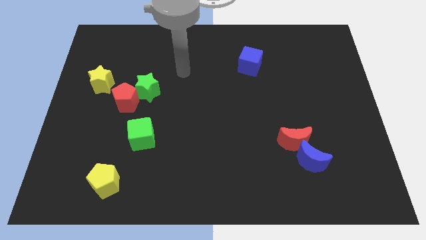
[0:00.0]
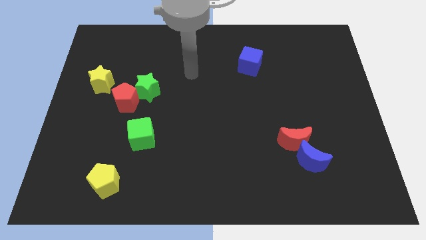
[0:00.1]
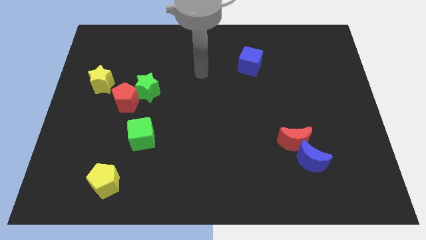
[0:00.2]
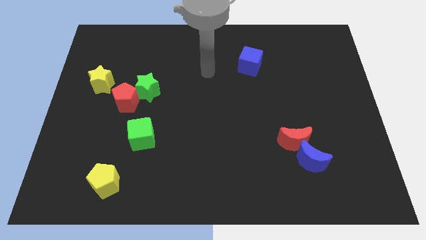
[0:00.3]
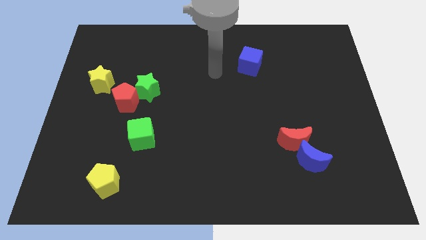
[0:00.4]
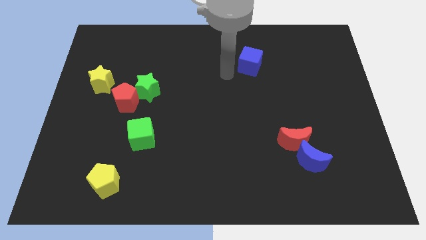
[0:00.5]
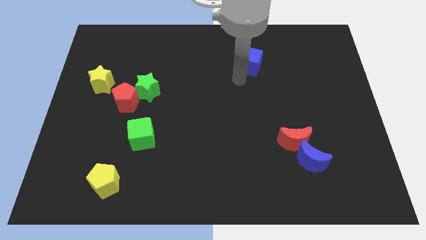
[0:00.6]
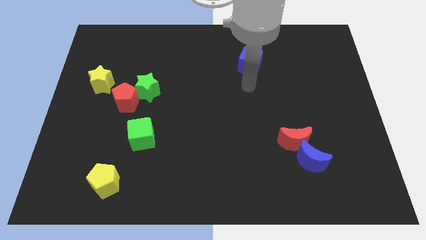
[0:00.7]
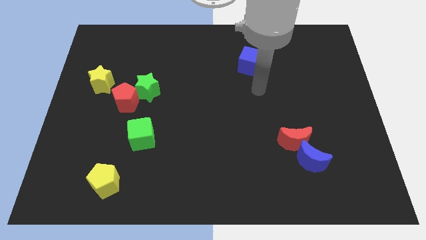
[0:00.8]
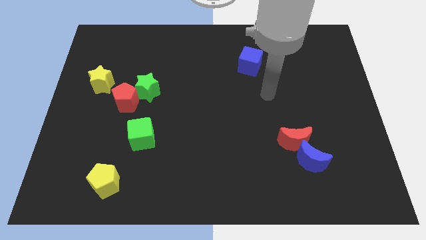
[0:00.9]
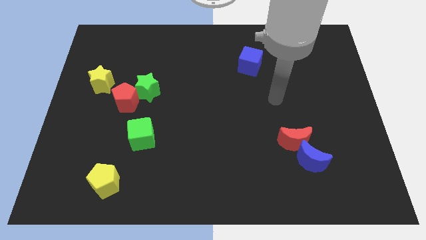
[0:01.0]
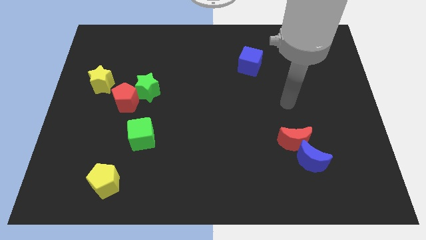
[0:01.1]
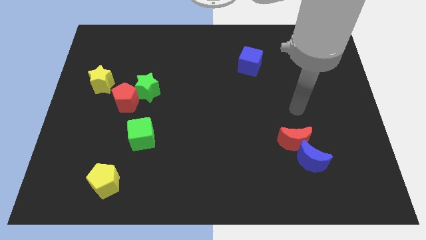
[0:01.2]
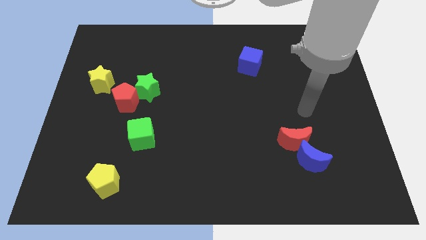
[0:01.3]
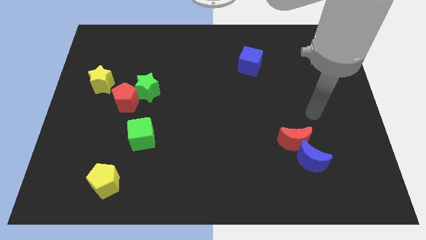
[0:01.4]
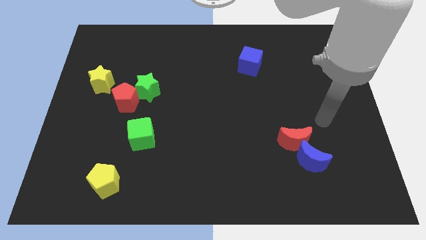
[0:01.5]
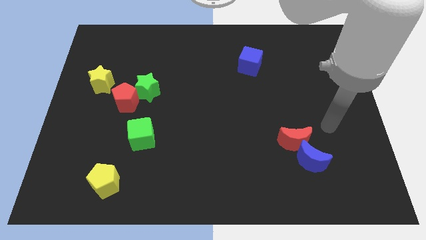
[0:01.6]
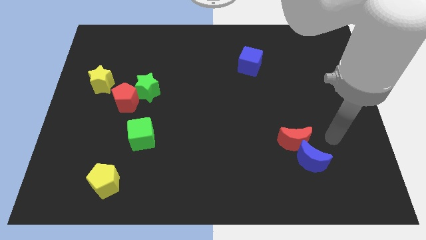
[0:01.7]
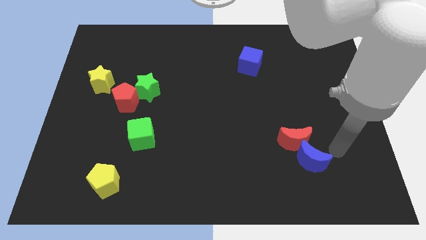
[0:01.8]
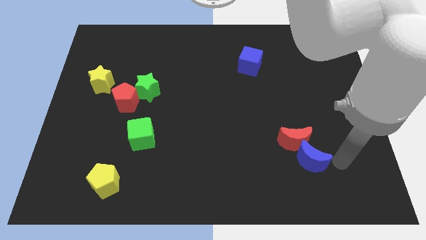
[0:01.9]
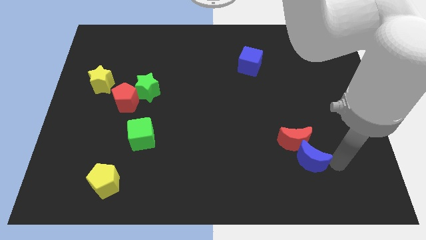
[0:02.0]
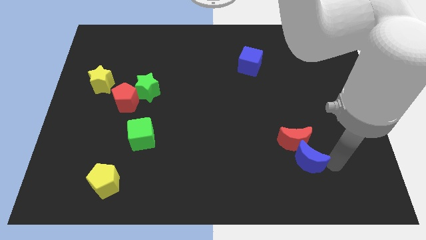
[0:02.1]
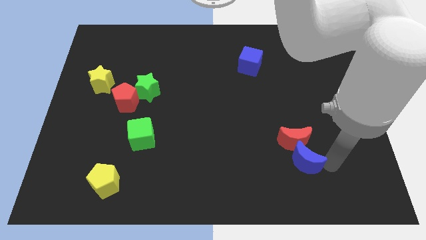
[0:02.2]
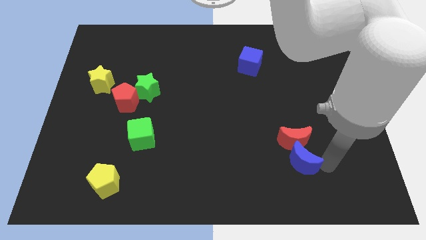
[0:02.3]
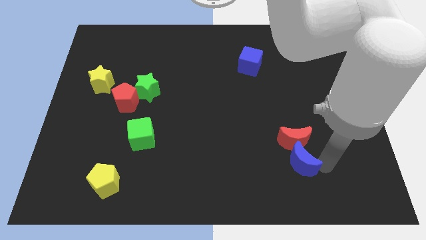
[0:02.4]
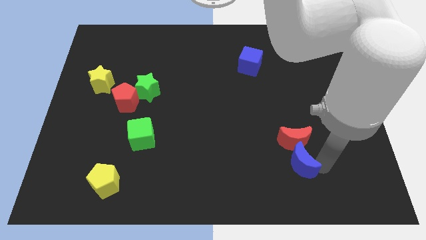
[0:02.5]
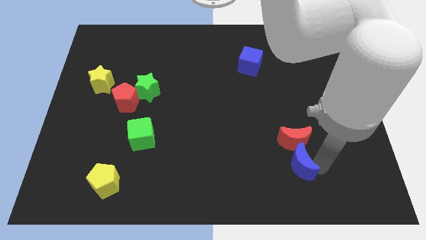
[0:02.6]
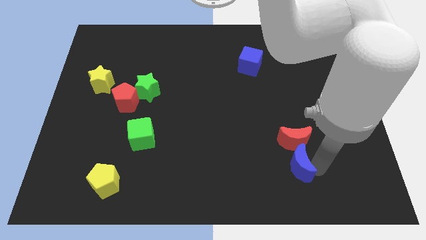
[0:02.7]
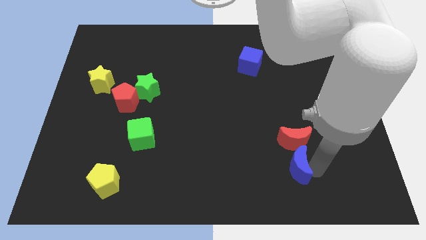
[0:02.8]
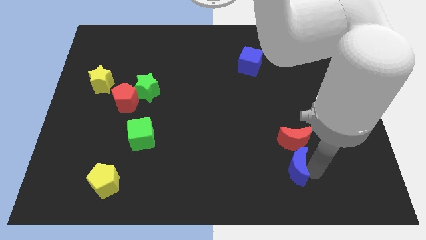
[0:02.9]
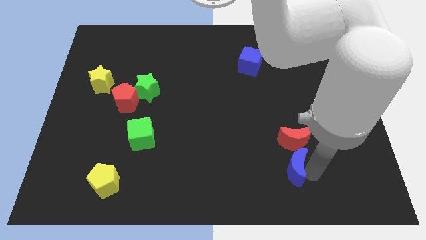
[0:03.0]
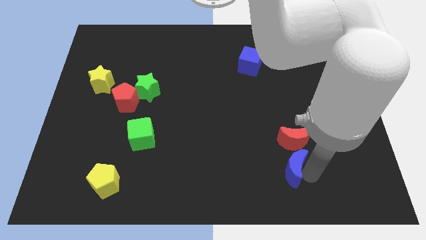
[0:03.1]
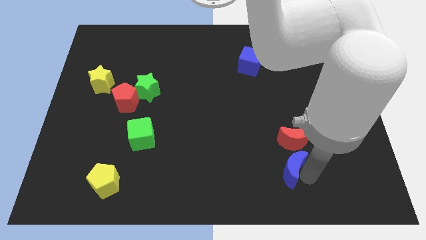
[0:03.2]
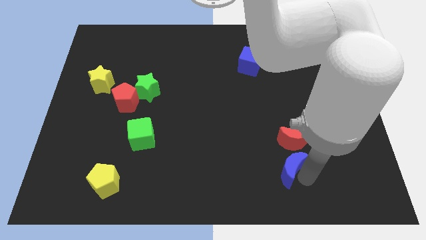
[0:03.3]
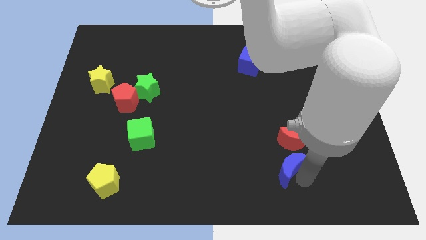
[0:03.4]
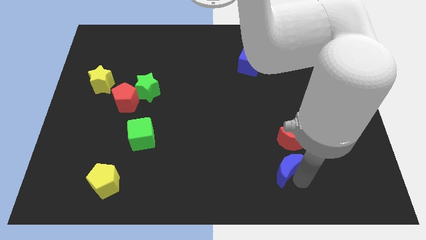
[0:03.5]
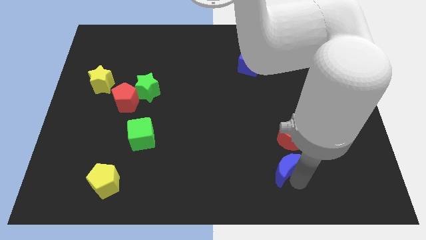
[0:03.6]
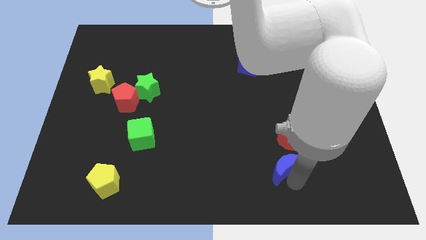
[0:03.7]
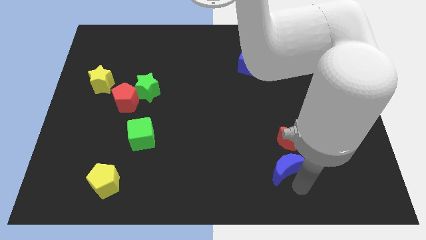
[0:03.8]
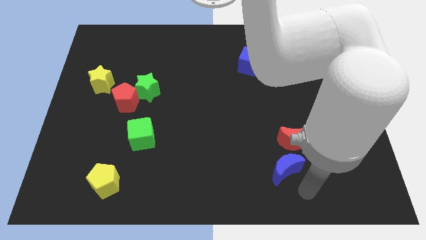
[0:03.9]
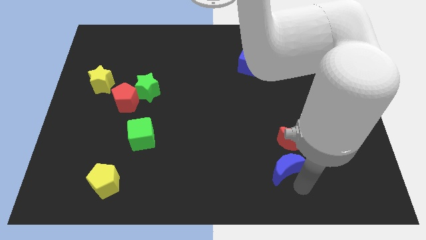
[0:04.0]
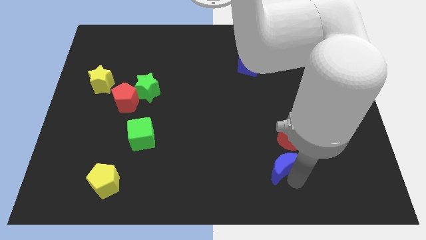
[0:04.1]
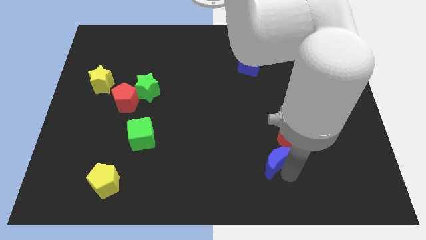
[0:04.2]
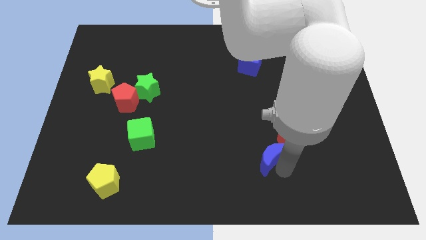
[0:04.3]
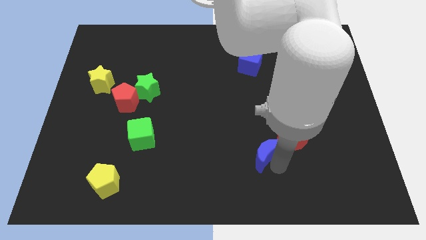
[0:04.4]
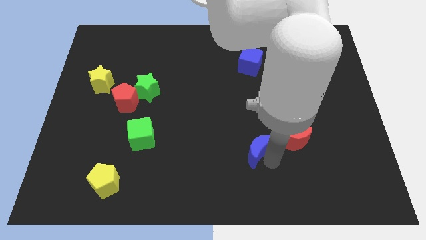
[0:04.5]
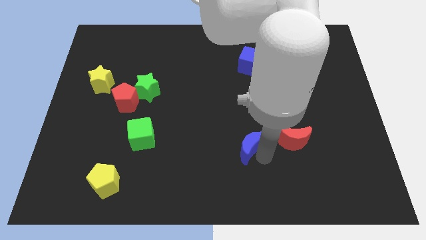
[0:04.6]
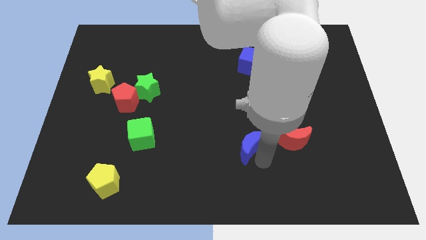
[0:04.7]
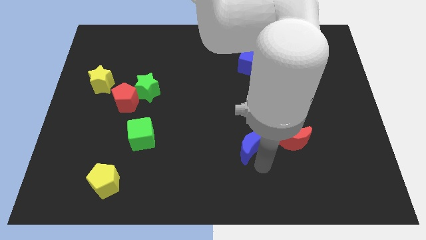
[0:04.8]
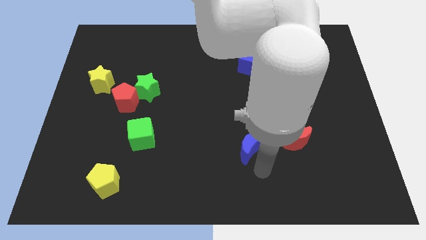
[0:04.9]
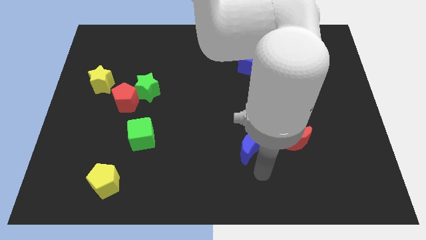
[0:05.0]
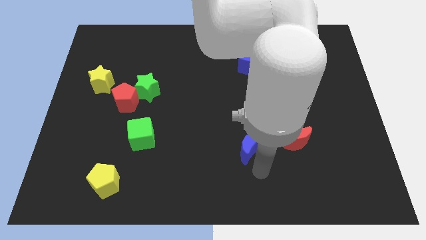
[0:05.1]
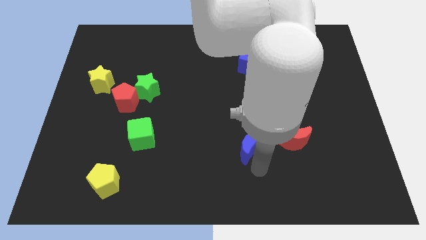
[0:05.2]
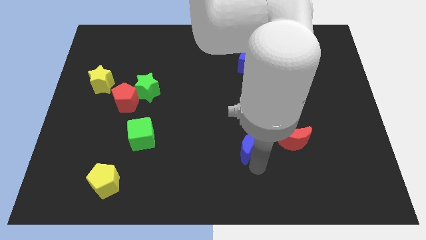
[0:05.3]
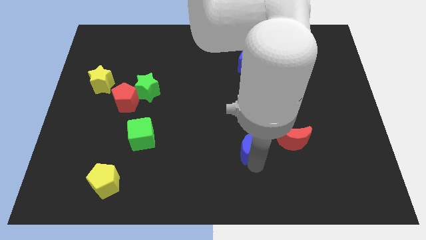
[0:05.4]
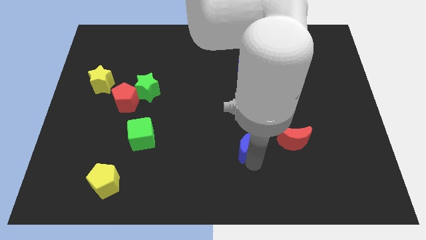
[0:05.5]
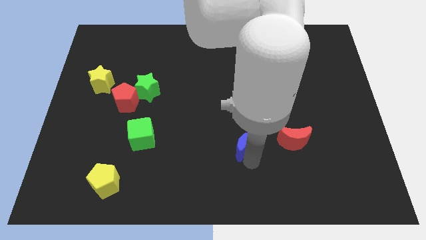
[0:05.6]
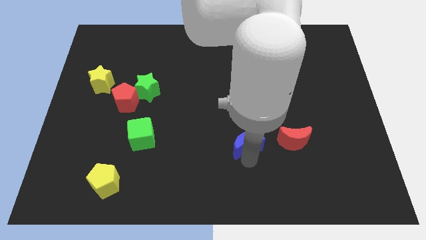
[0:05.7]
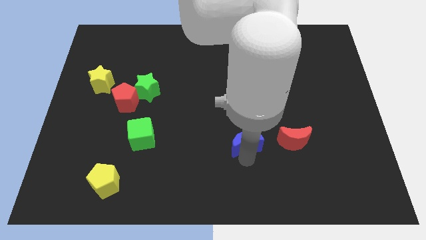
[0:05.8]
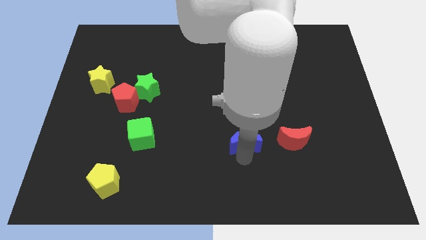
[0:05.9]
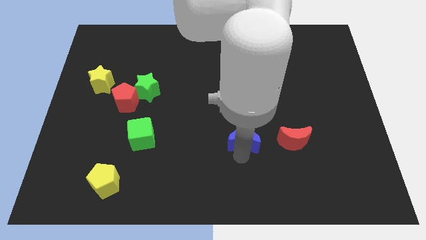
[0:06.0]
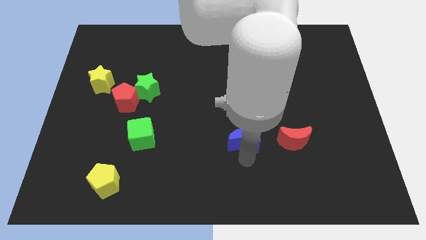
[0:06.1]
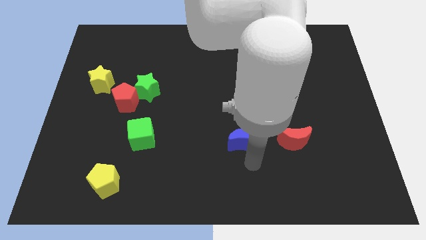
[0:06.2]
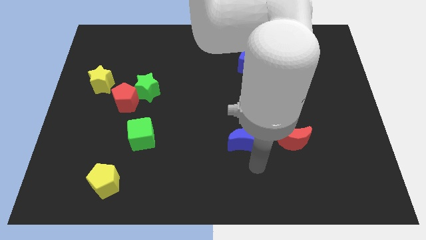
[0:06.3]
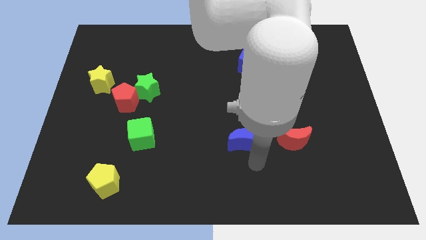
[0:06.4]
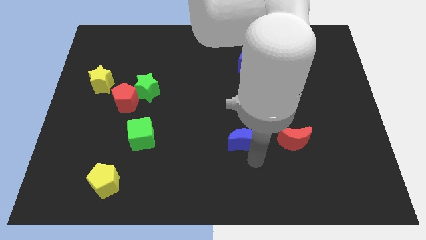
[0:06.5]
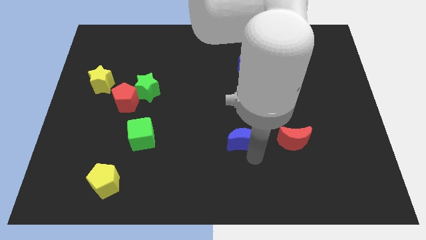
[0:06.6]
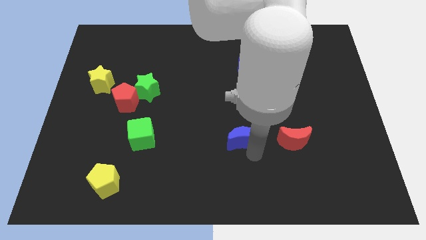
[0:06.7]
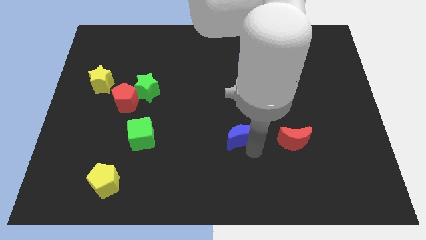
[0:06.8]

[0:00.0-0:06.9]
slide the blue moon to the middle

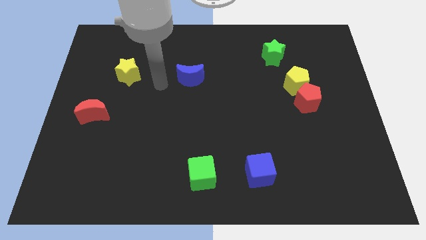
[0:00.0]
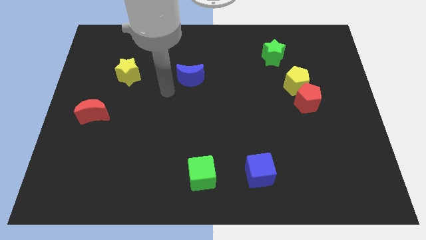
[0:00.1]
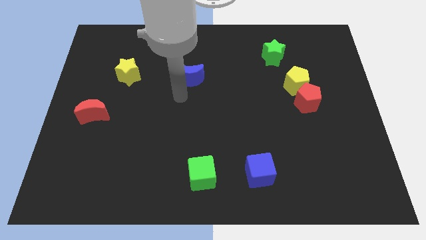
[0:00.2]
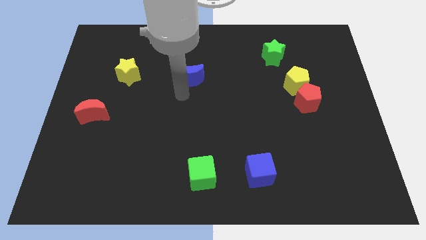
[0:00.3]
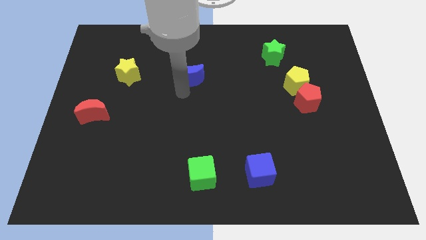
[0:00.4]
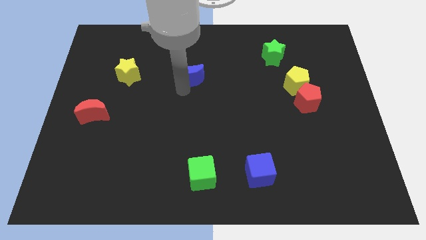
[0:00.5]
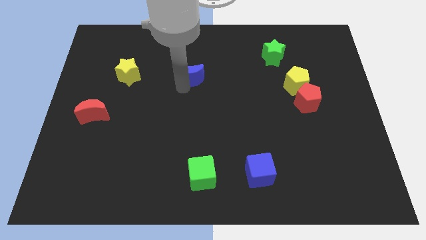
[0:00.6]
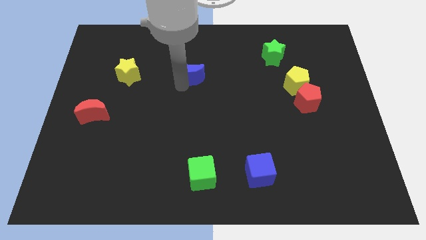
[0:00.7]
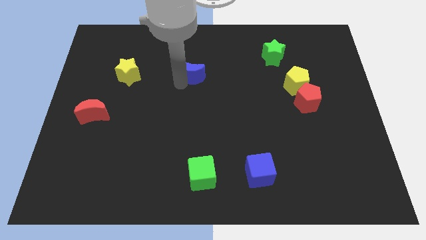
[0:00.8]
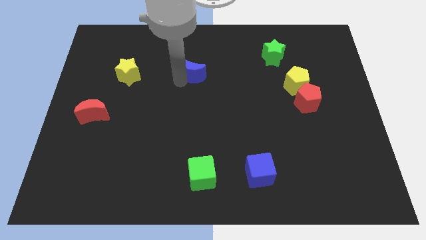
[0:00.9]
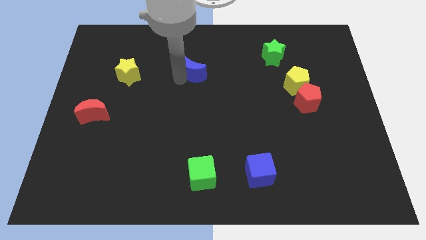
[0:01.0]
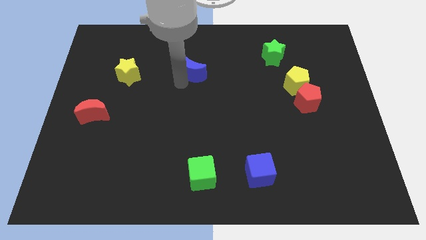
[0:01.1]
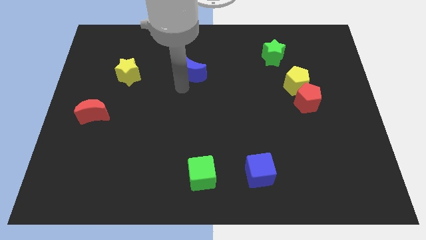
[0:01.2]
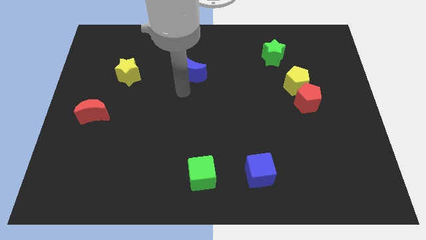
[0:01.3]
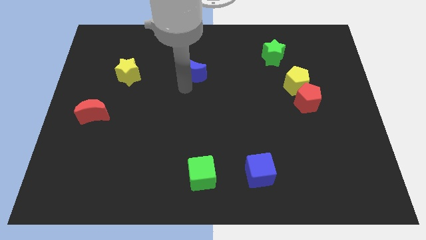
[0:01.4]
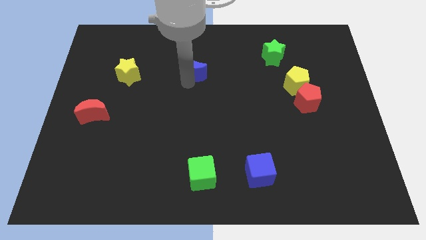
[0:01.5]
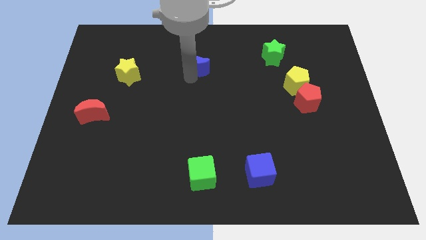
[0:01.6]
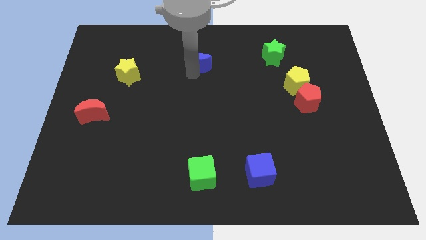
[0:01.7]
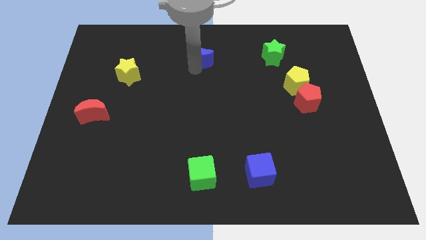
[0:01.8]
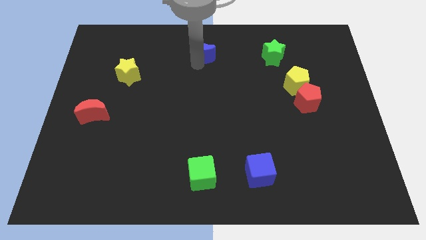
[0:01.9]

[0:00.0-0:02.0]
move the blue moon to the top
